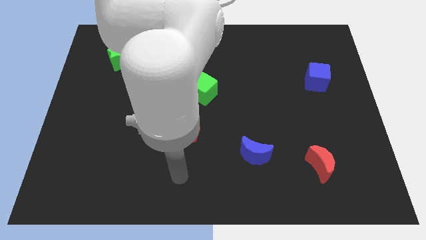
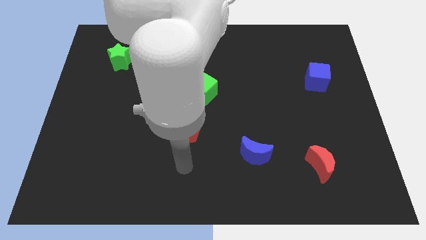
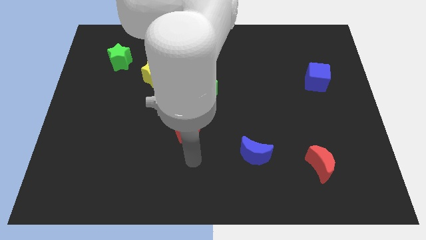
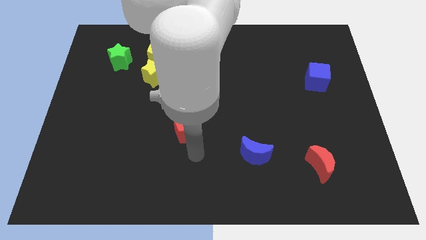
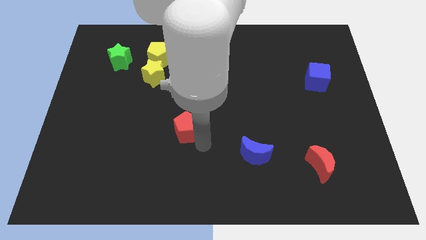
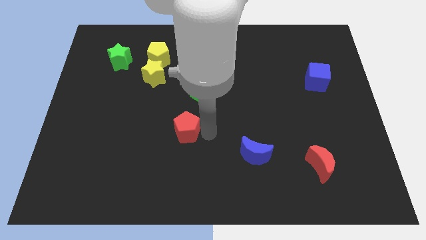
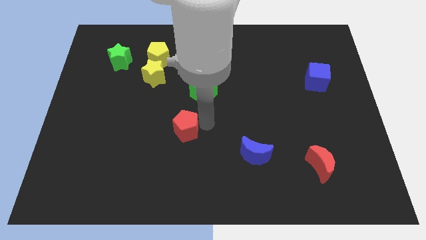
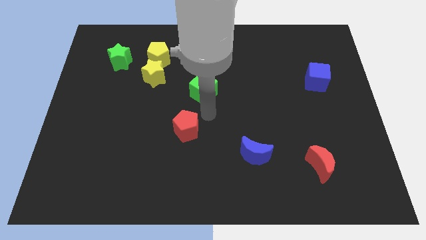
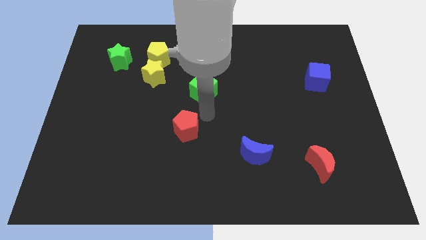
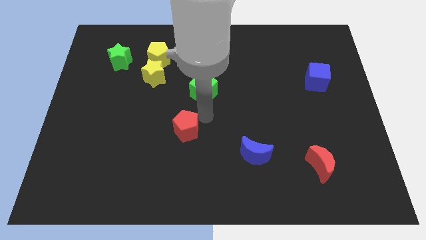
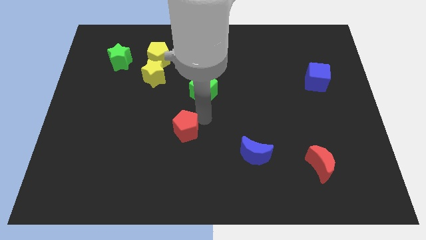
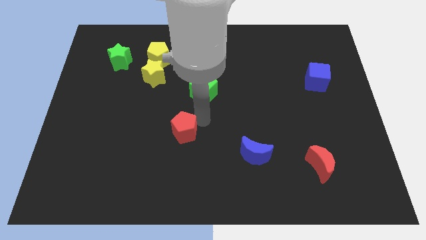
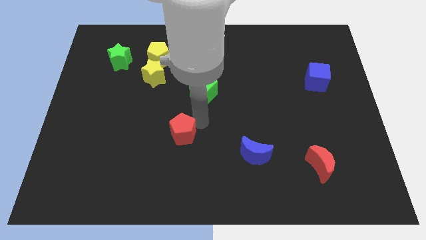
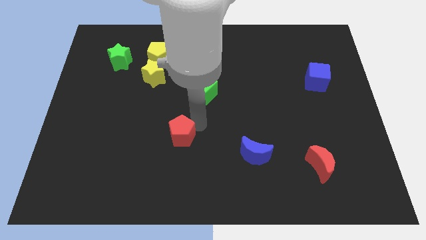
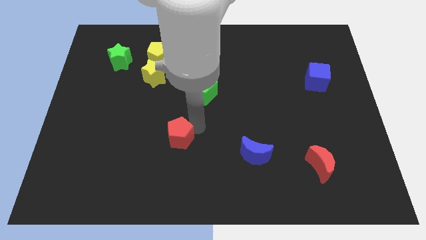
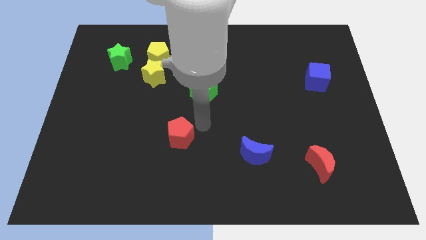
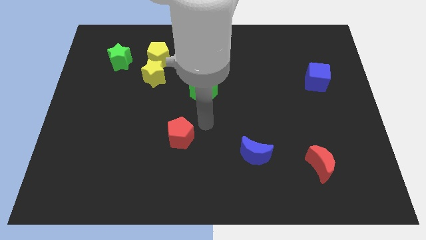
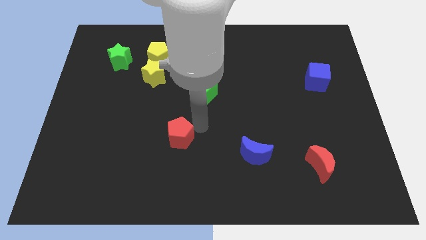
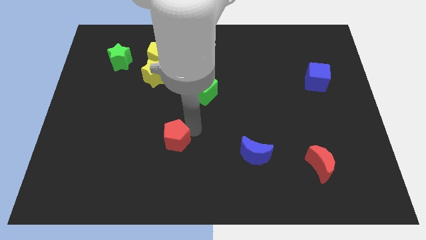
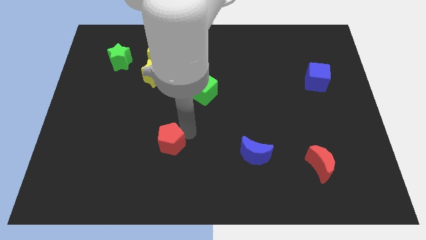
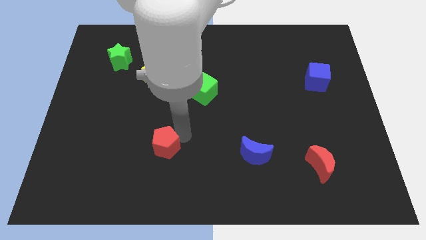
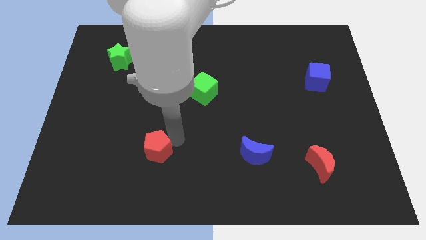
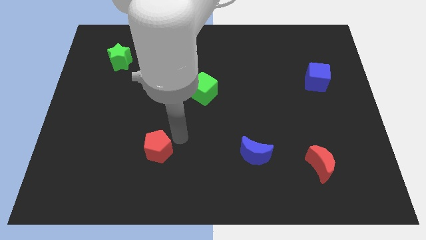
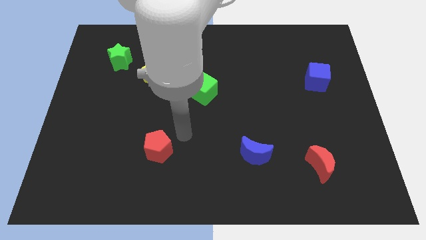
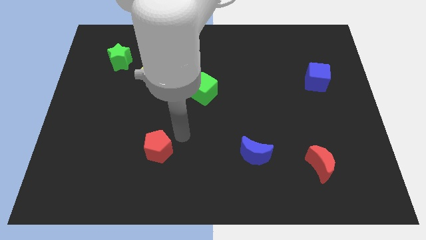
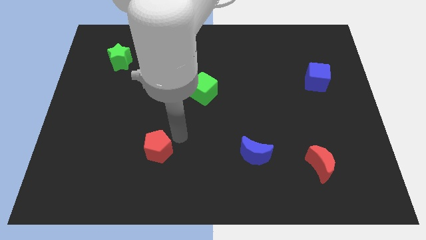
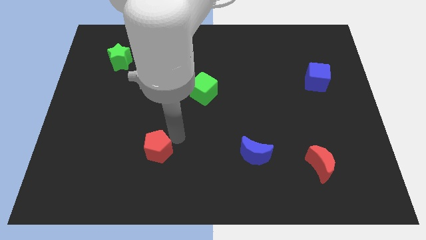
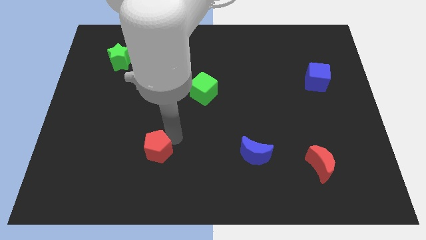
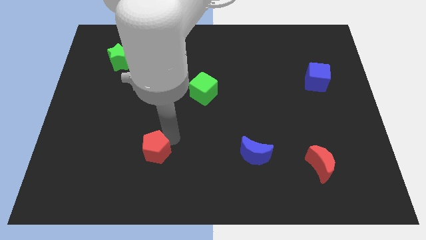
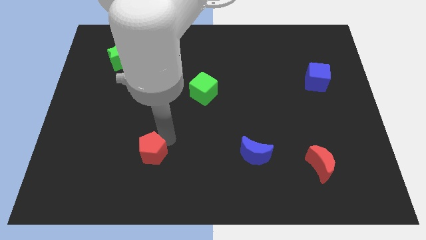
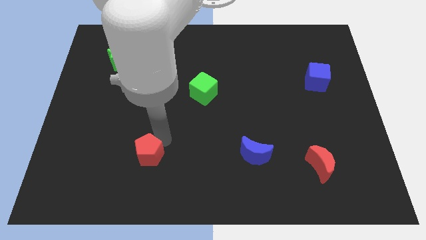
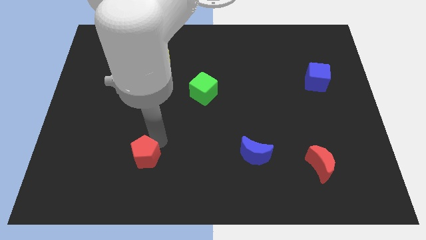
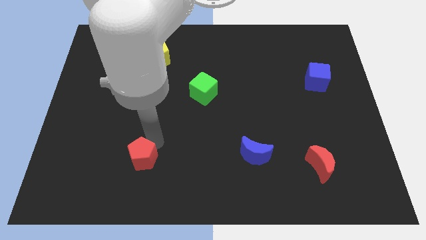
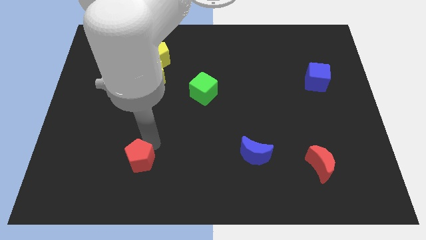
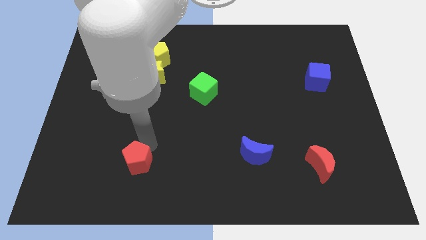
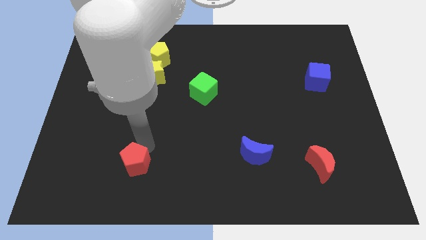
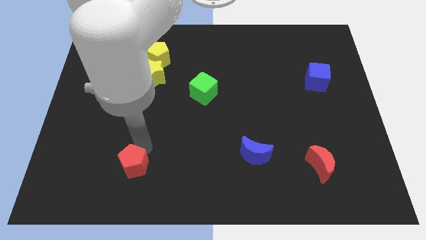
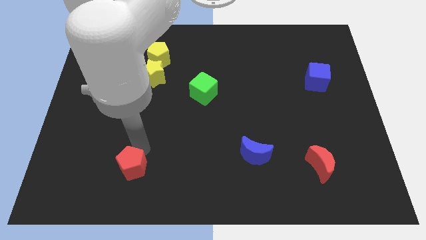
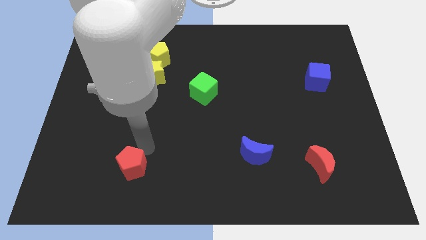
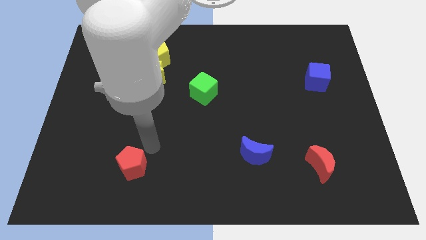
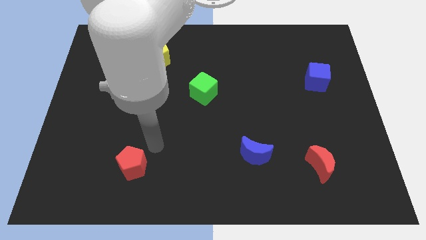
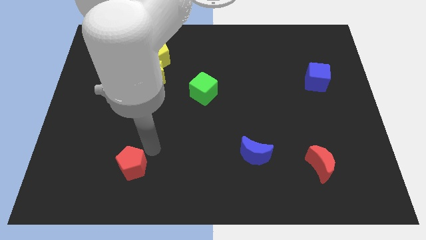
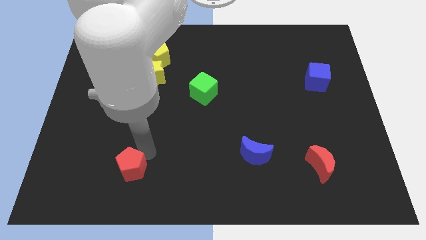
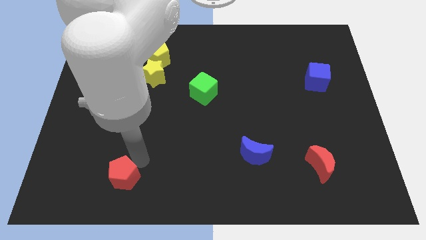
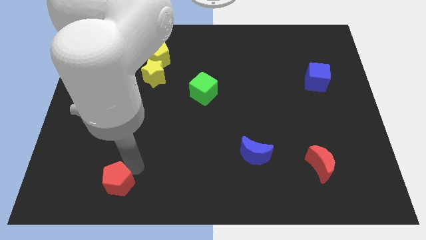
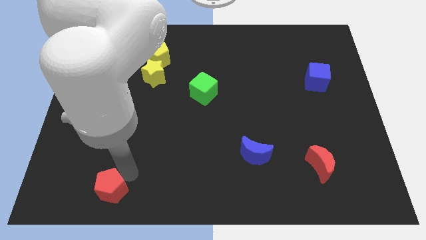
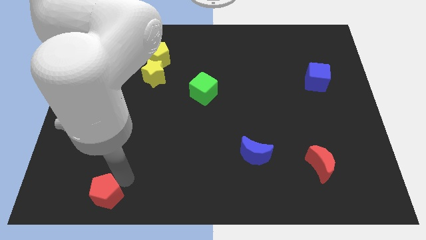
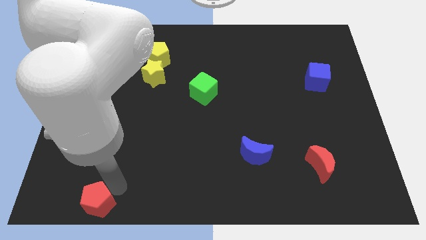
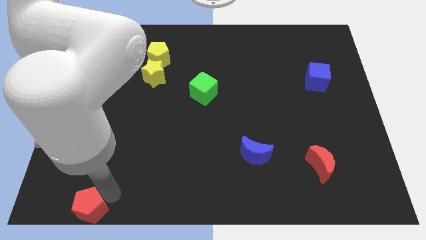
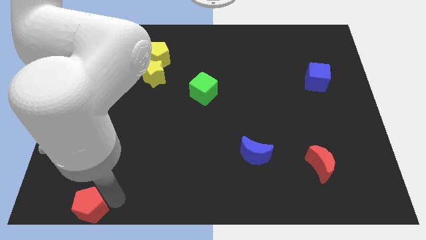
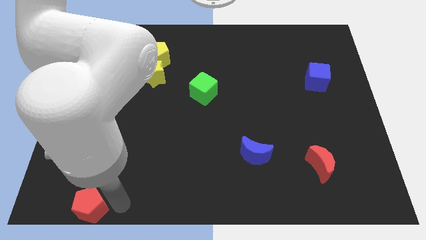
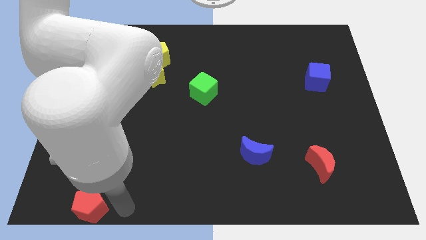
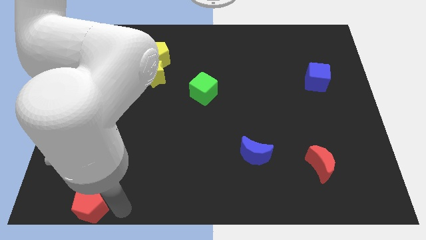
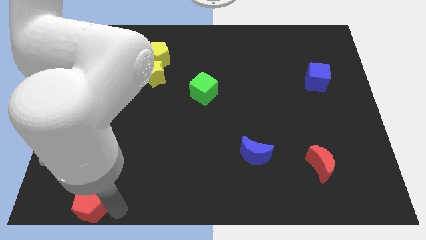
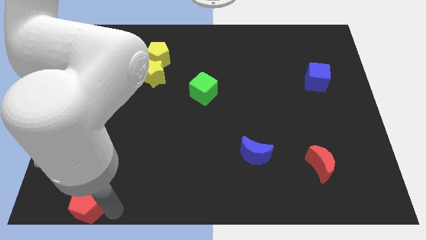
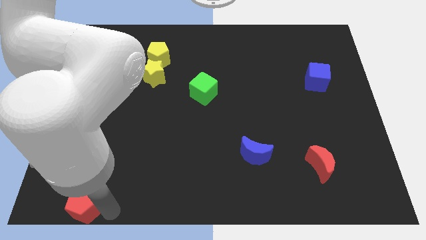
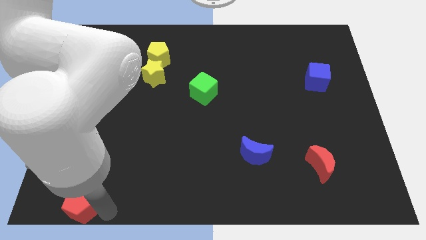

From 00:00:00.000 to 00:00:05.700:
put the red pentagon to the bottom left
